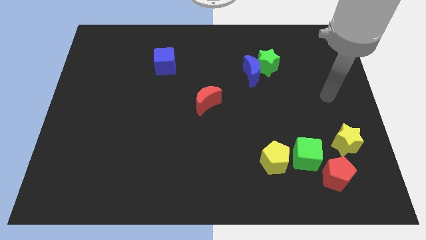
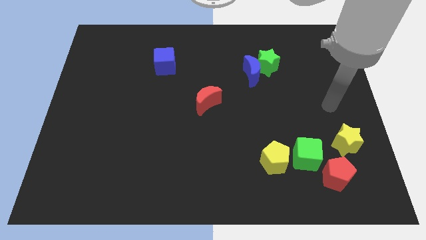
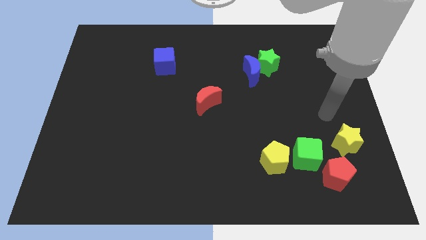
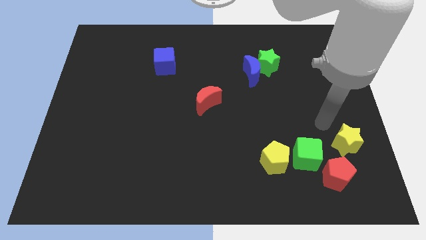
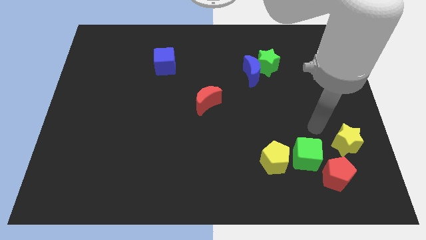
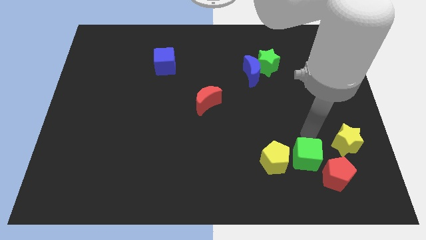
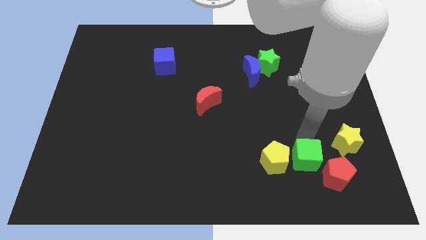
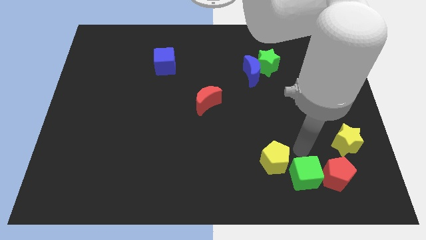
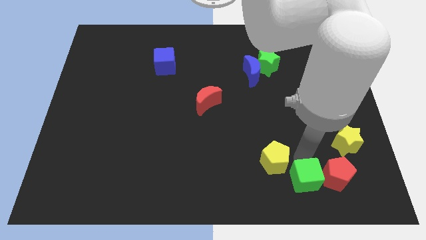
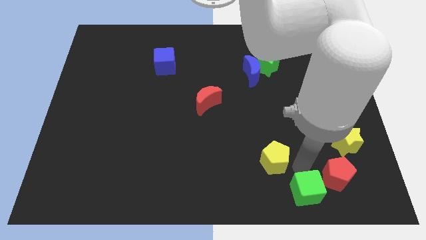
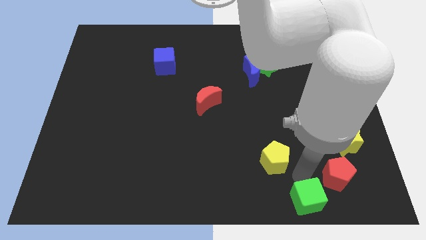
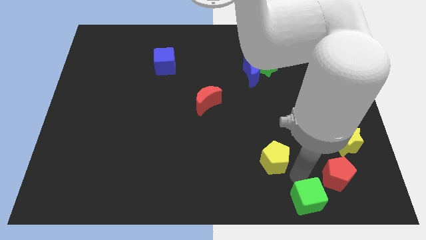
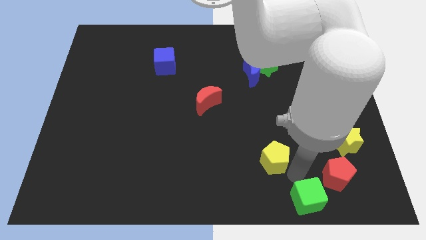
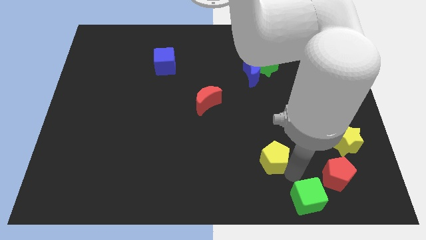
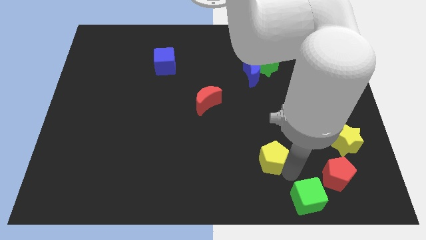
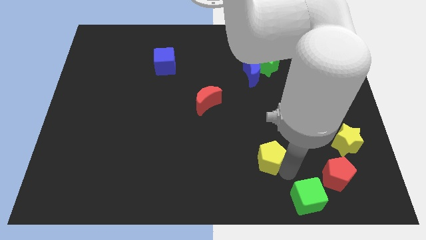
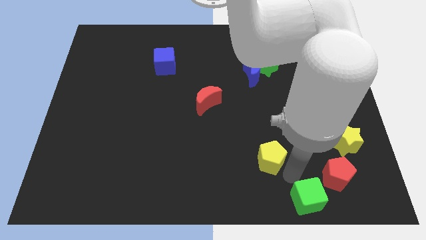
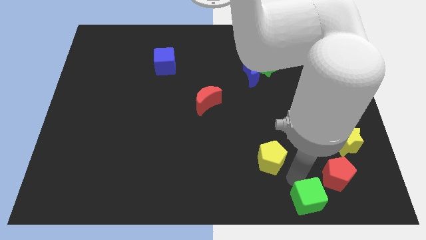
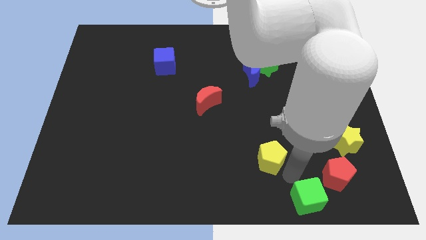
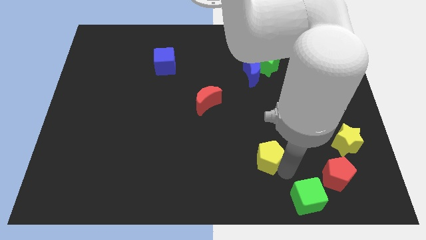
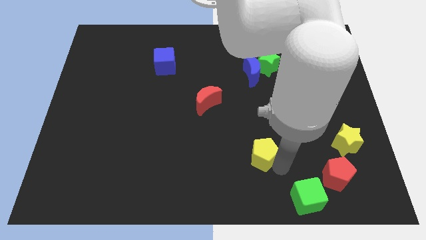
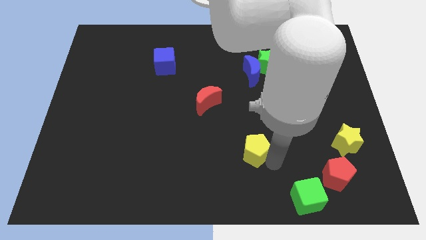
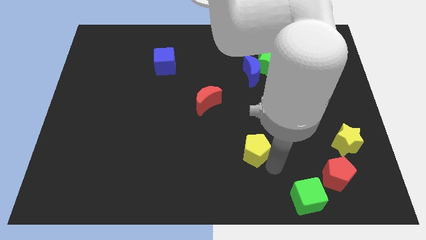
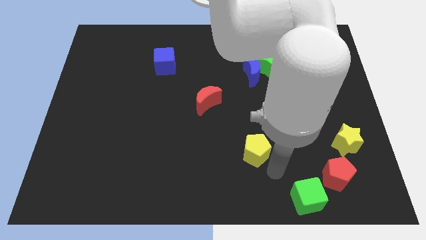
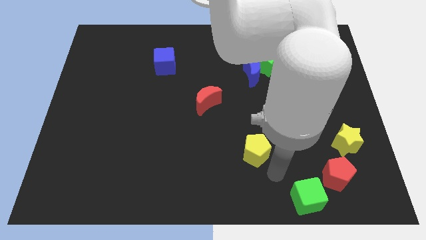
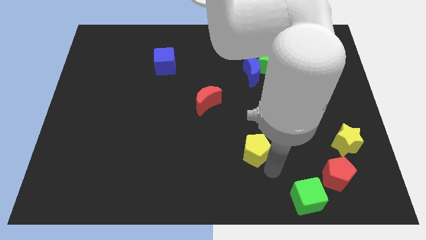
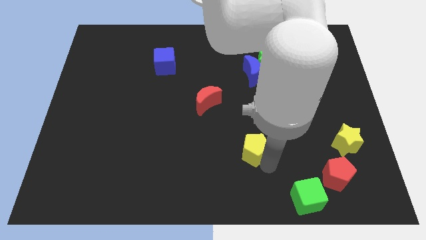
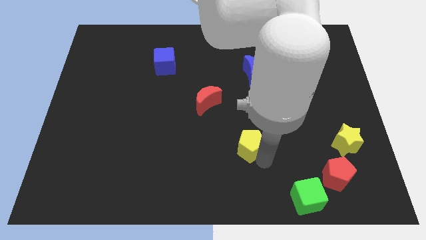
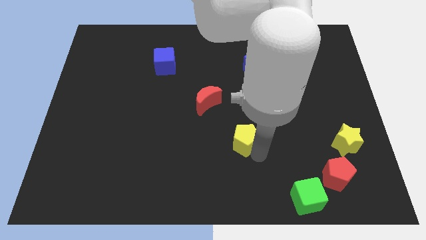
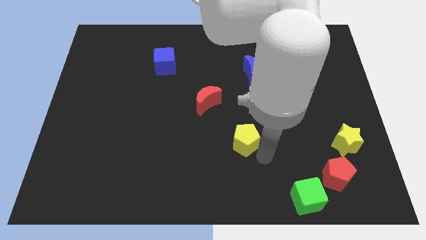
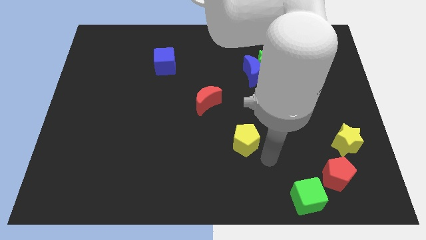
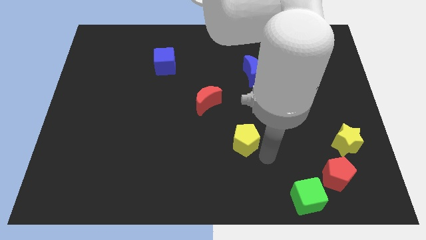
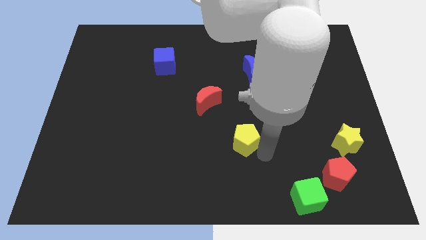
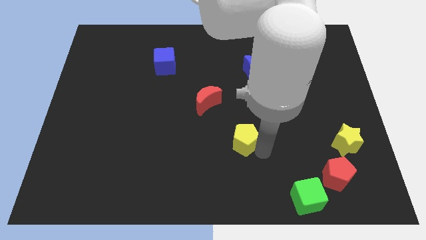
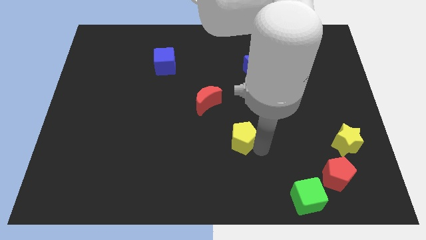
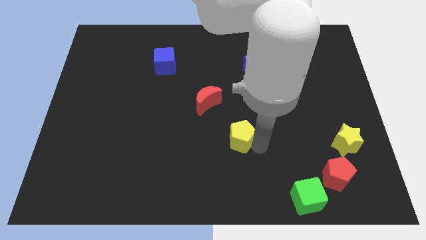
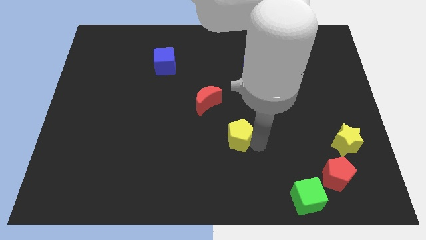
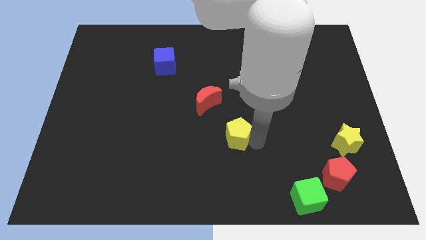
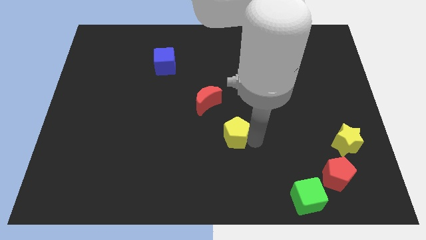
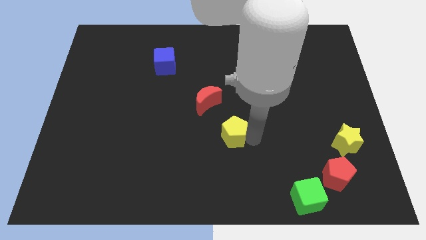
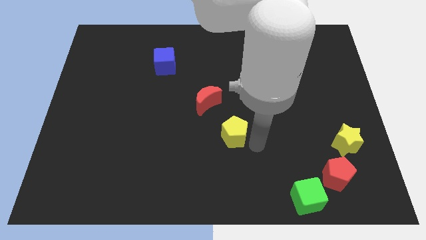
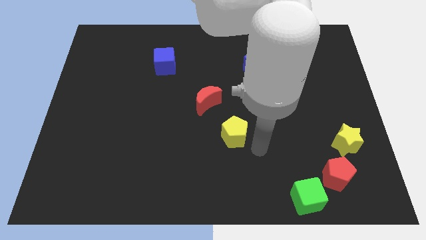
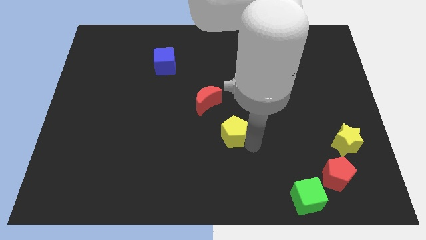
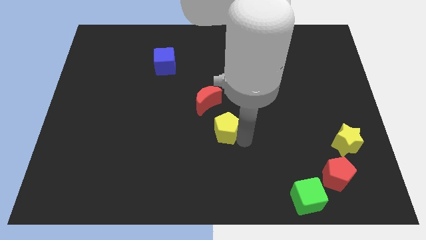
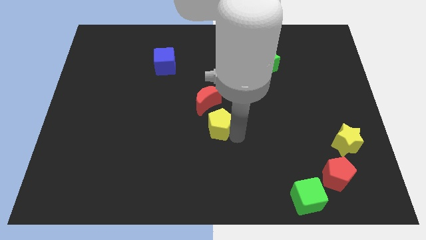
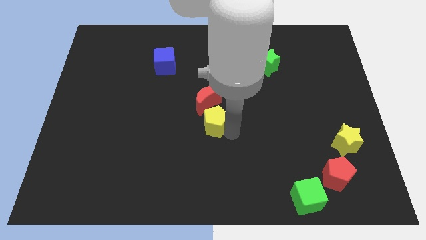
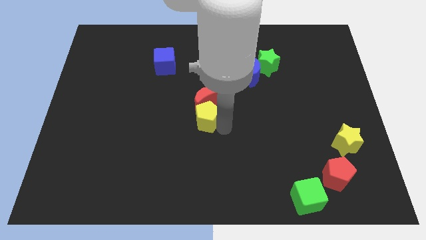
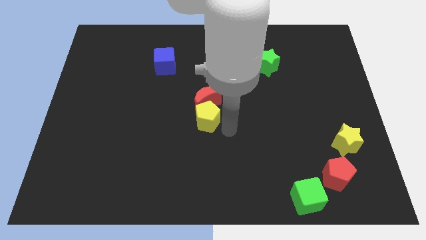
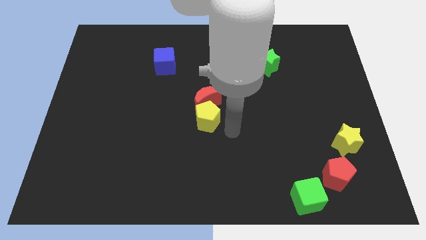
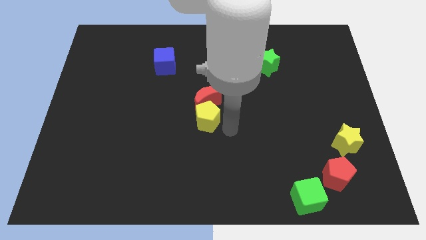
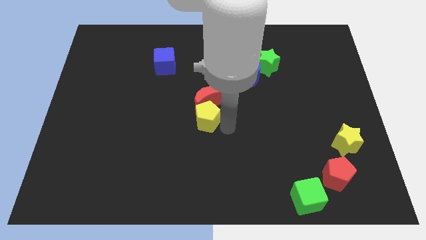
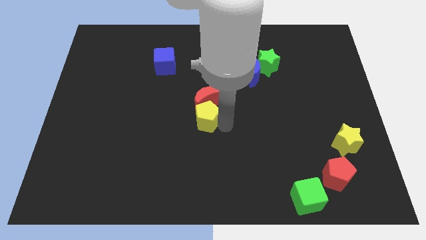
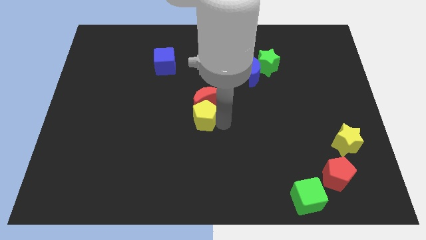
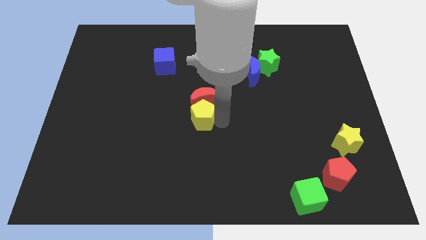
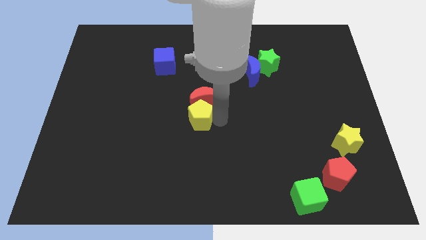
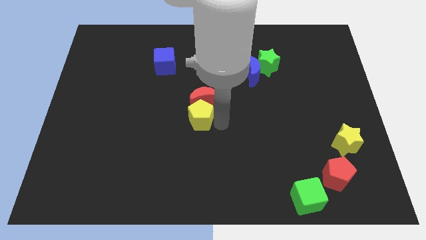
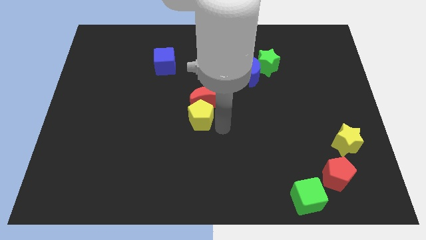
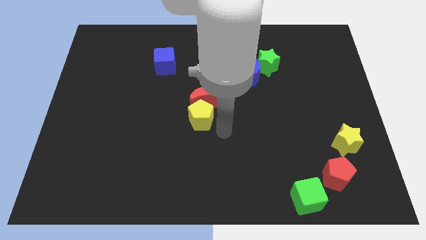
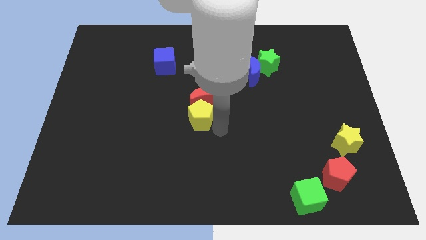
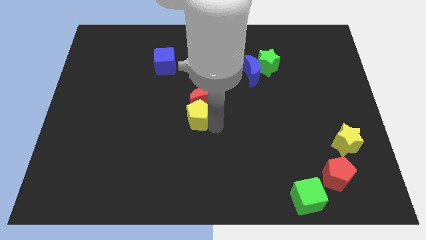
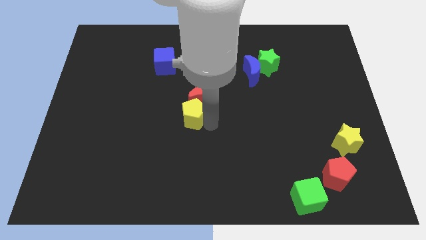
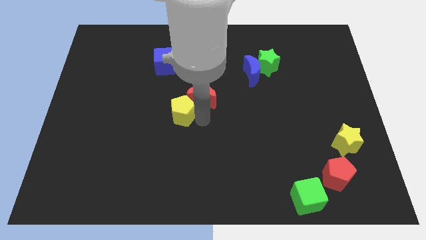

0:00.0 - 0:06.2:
move the yellow pentagon to the left side of the red moon

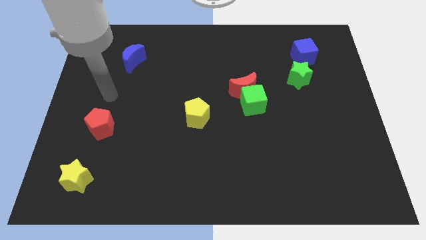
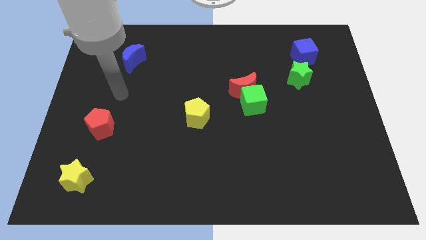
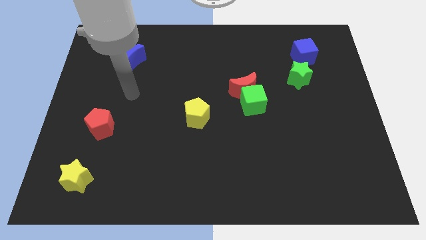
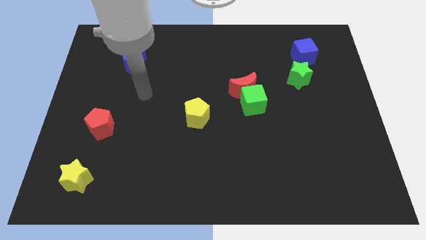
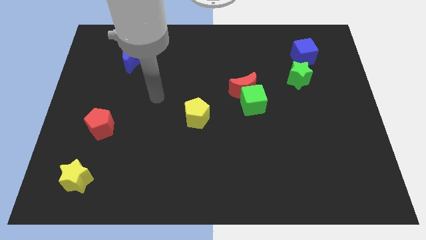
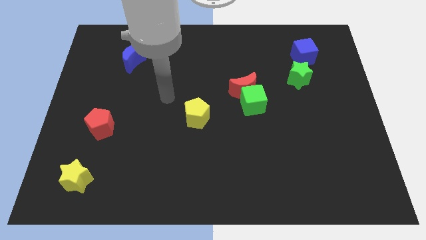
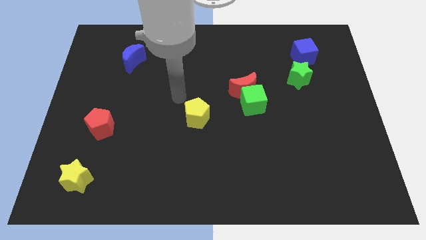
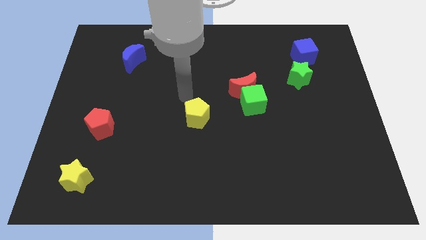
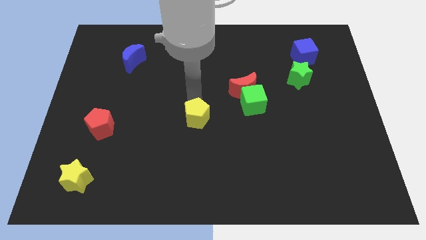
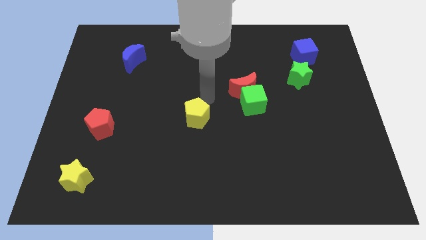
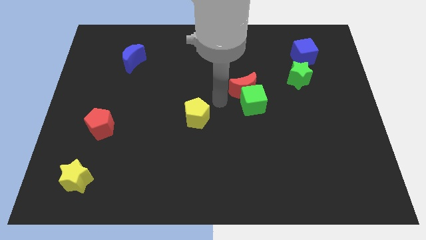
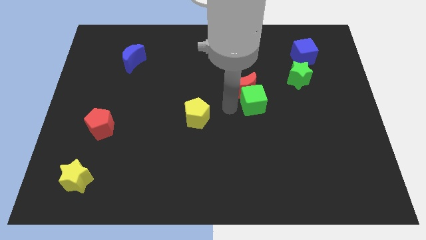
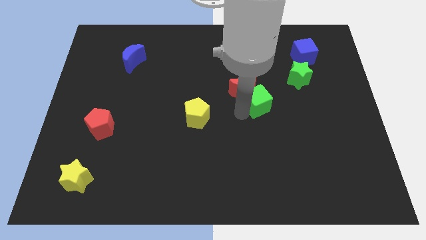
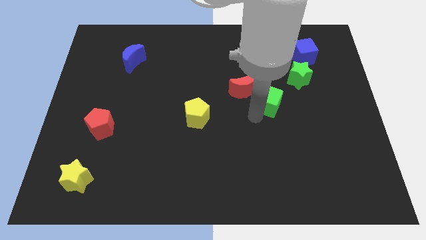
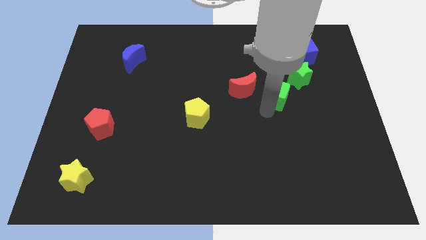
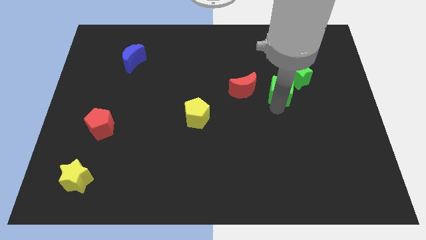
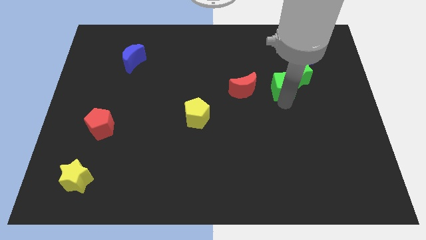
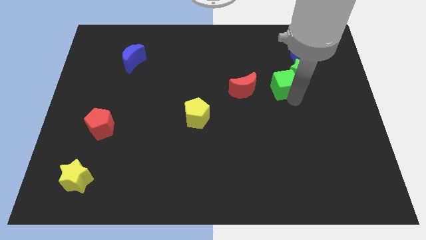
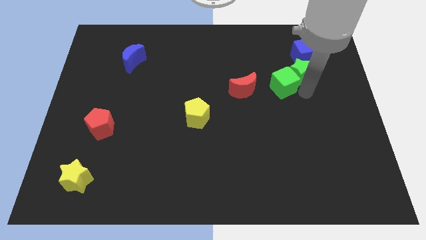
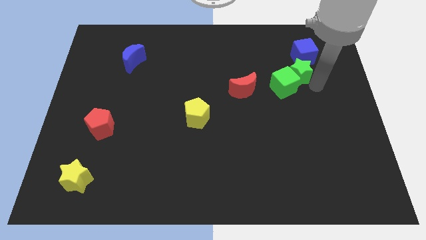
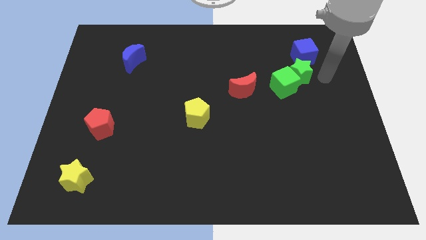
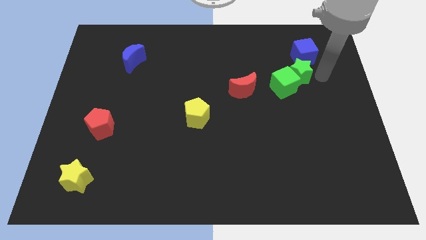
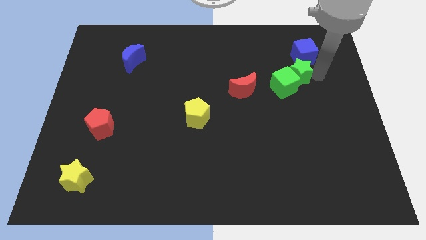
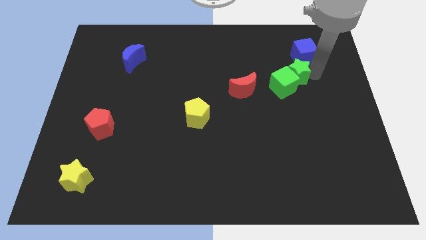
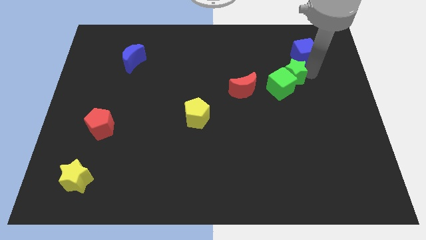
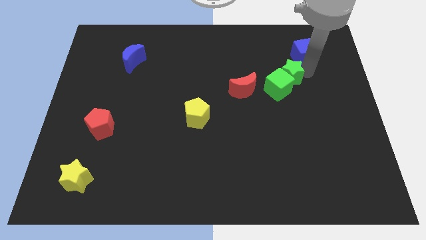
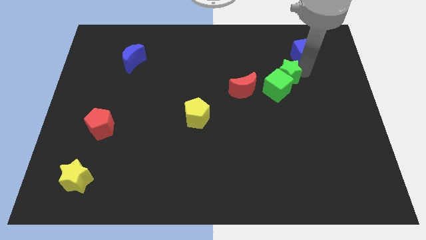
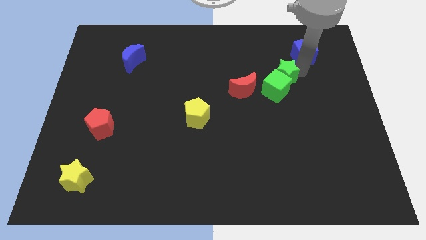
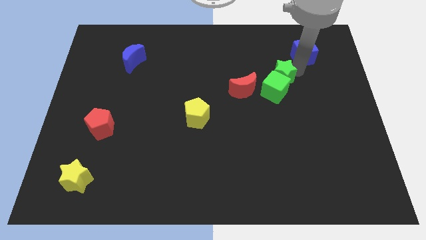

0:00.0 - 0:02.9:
slide the green star to the top right of the red moon
